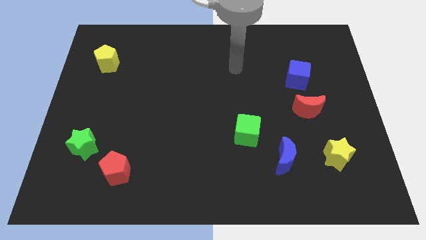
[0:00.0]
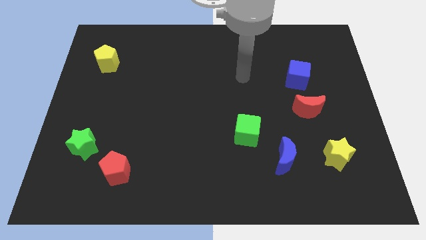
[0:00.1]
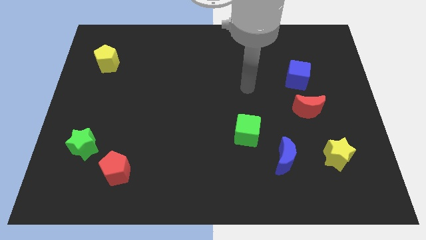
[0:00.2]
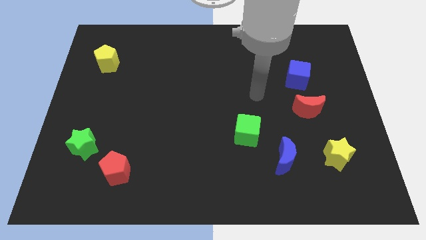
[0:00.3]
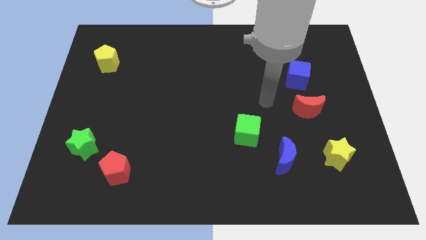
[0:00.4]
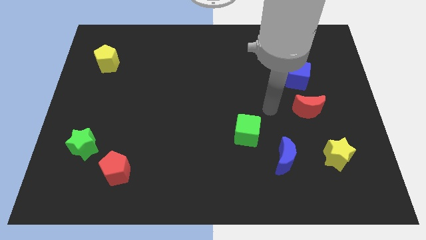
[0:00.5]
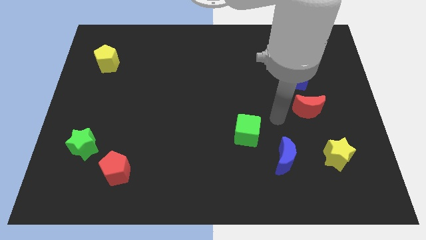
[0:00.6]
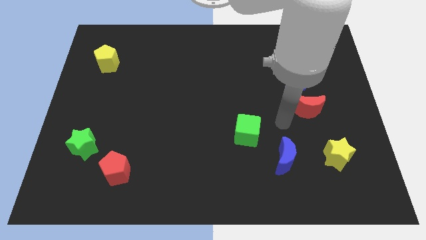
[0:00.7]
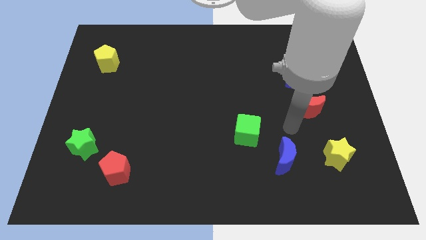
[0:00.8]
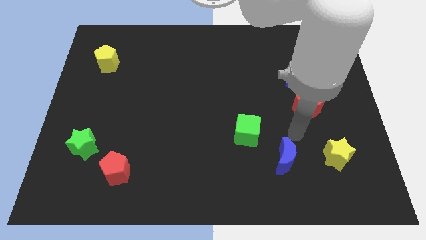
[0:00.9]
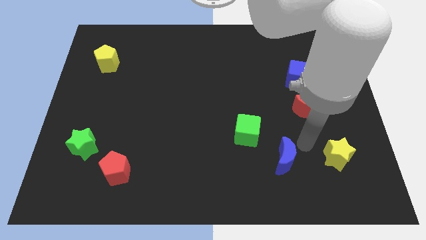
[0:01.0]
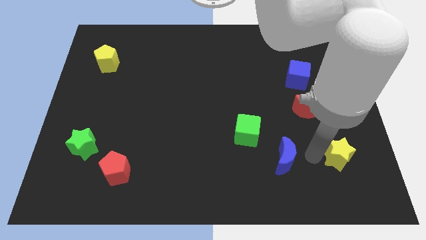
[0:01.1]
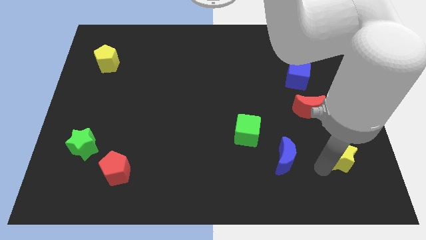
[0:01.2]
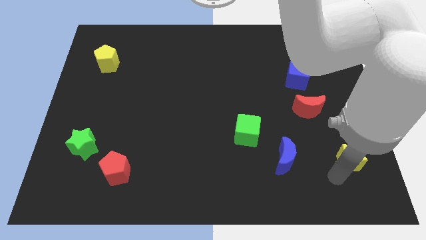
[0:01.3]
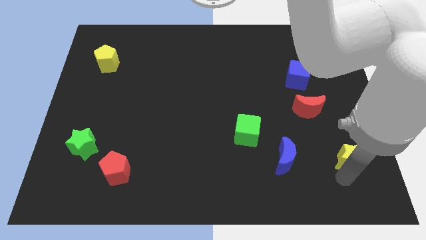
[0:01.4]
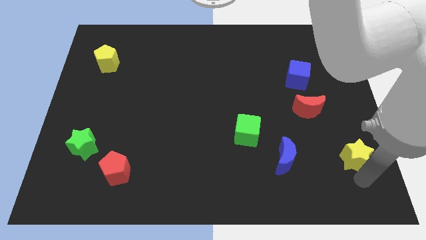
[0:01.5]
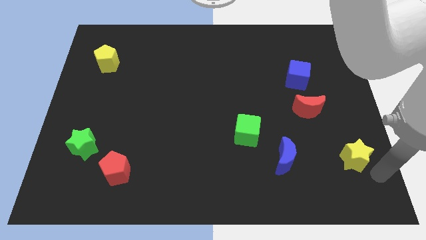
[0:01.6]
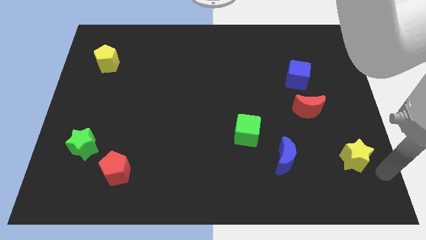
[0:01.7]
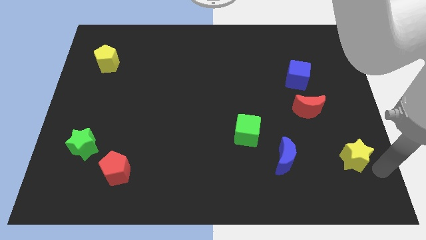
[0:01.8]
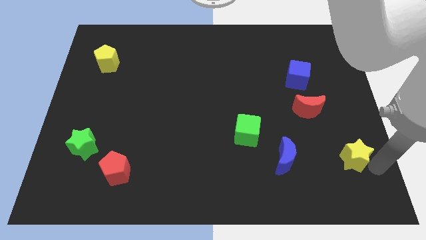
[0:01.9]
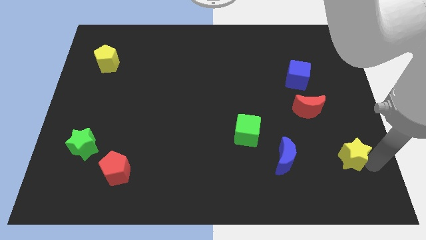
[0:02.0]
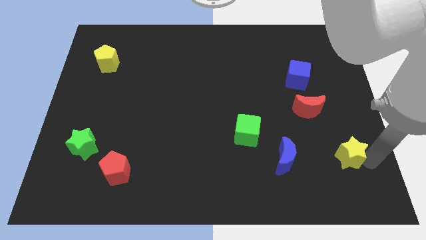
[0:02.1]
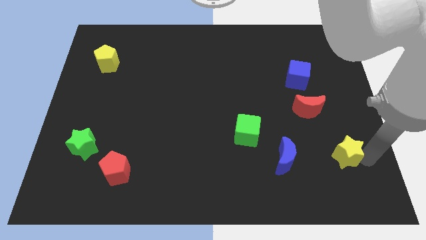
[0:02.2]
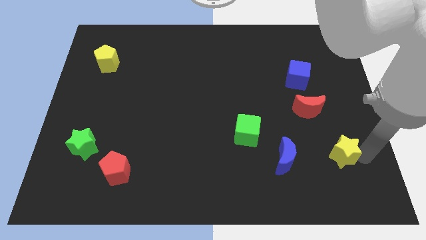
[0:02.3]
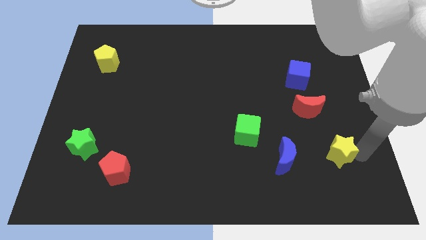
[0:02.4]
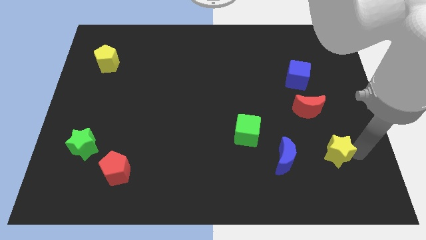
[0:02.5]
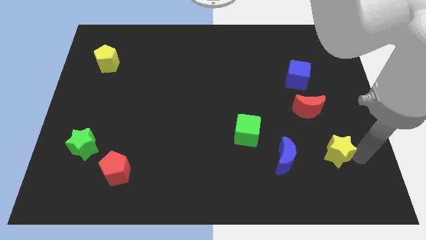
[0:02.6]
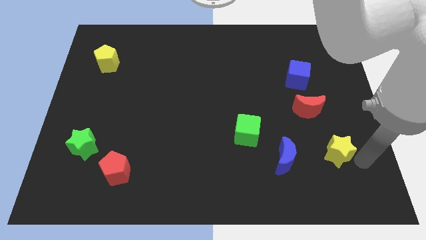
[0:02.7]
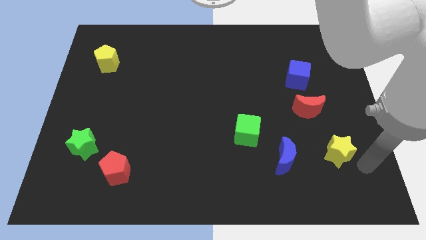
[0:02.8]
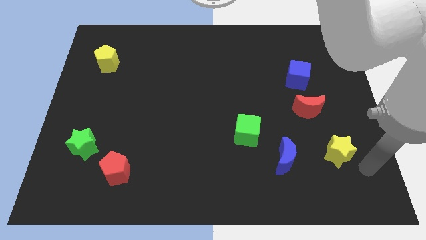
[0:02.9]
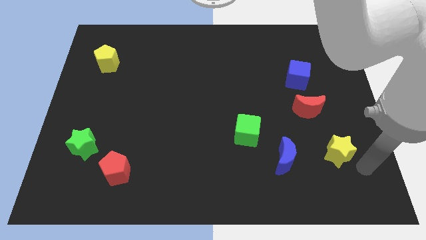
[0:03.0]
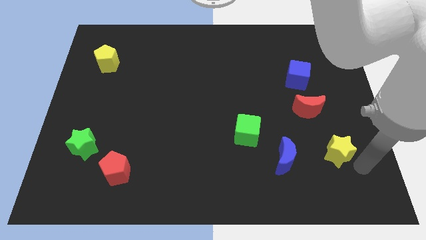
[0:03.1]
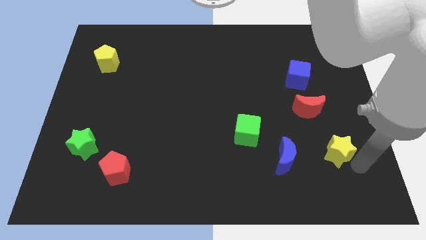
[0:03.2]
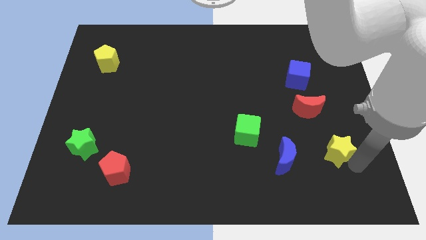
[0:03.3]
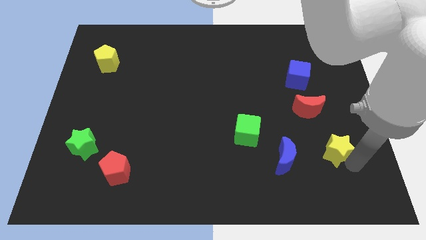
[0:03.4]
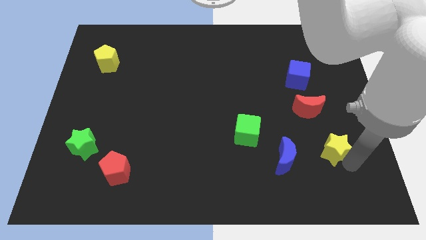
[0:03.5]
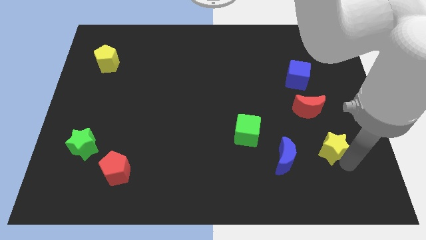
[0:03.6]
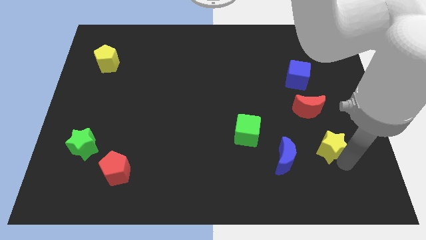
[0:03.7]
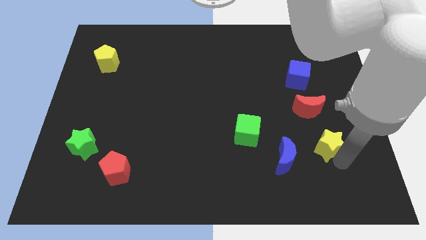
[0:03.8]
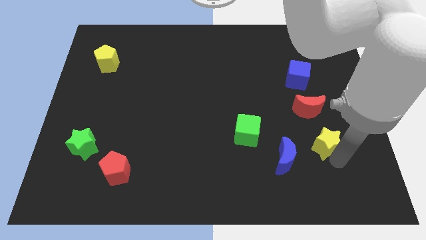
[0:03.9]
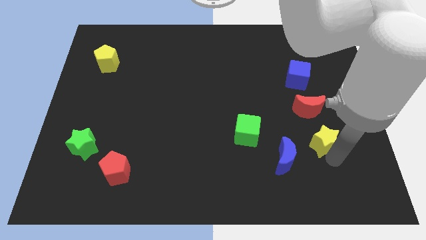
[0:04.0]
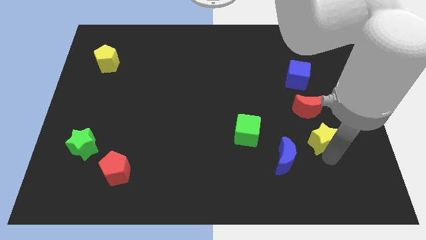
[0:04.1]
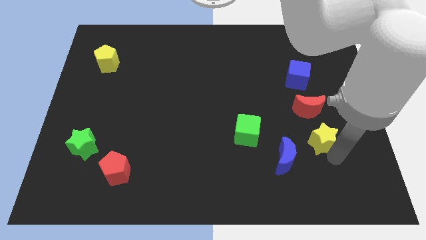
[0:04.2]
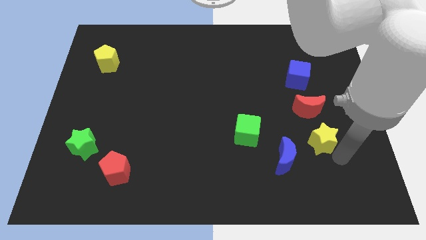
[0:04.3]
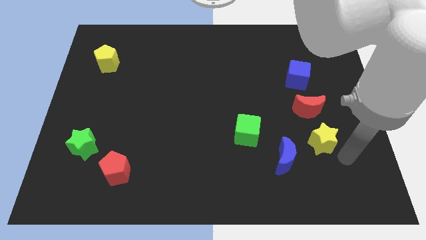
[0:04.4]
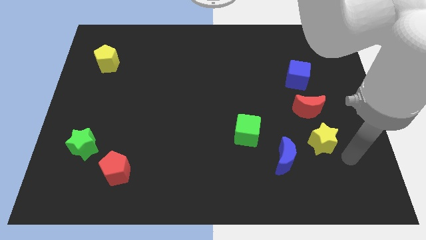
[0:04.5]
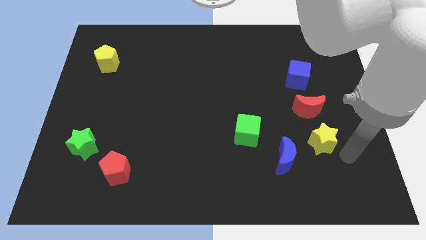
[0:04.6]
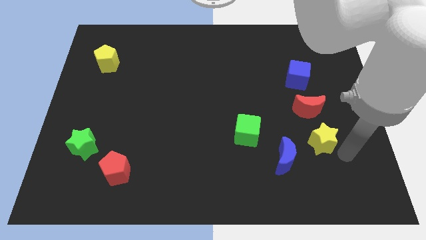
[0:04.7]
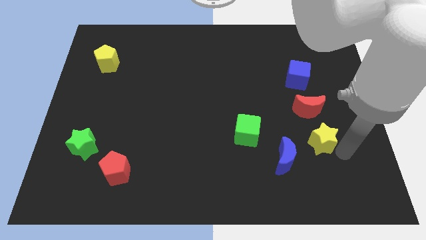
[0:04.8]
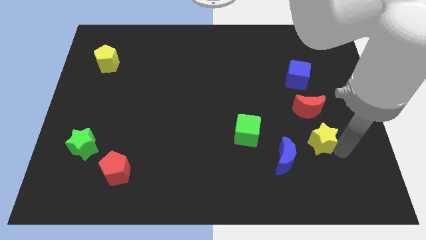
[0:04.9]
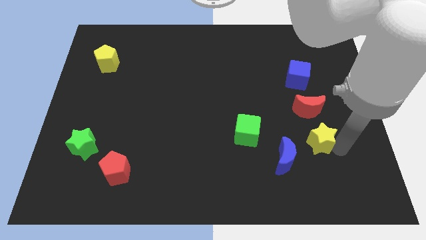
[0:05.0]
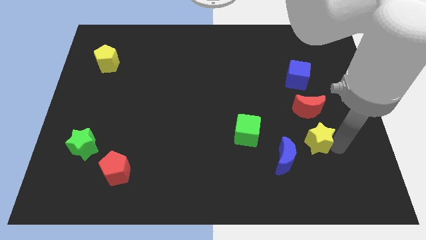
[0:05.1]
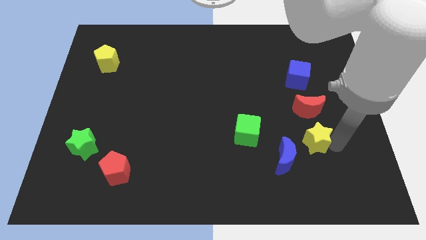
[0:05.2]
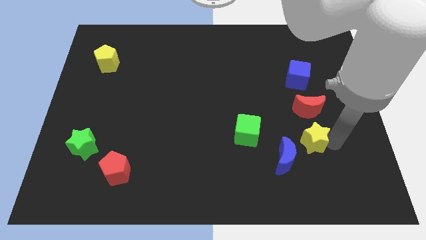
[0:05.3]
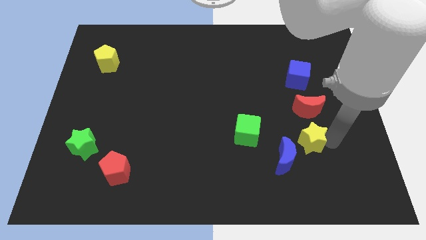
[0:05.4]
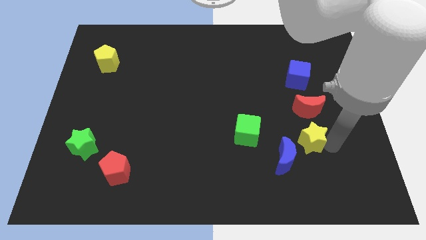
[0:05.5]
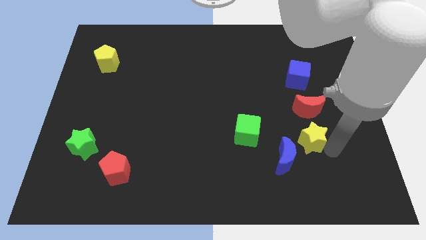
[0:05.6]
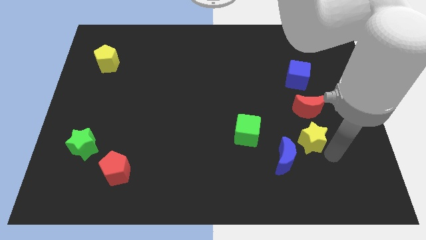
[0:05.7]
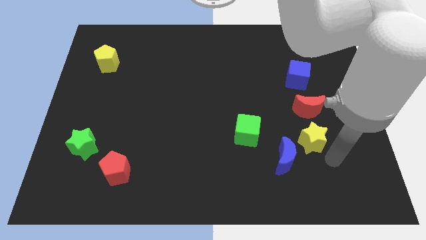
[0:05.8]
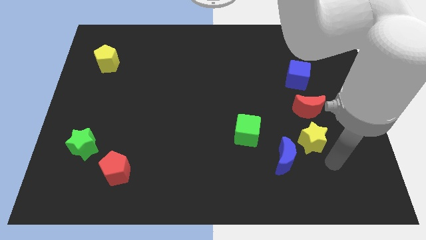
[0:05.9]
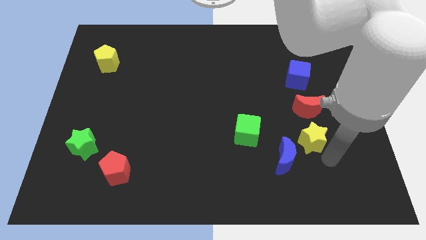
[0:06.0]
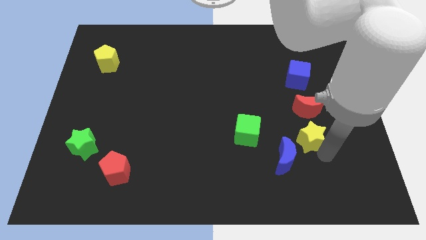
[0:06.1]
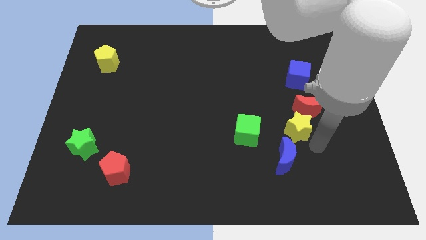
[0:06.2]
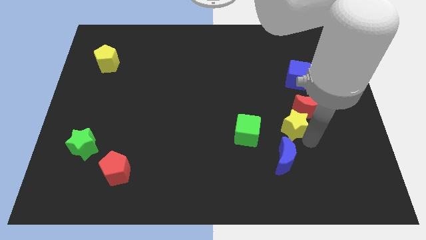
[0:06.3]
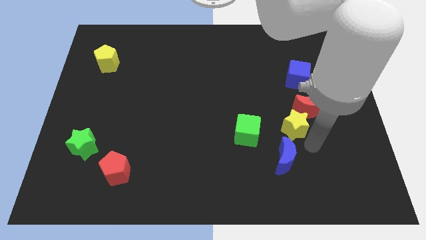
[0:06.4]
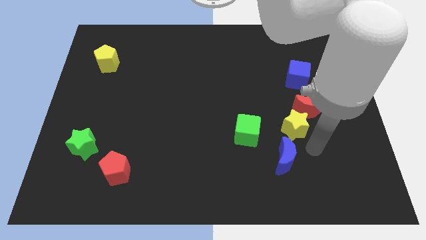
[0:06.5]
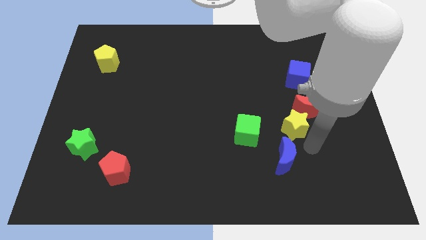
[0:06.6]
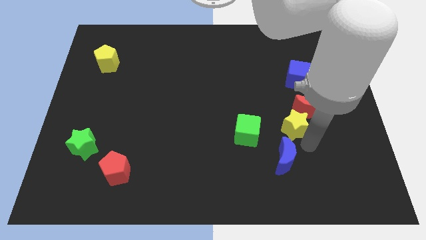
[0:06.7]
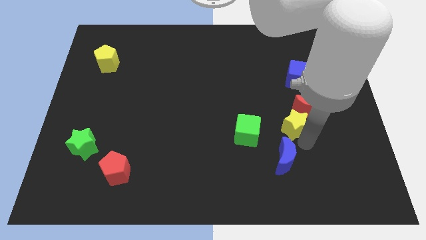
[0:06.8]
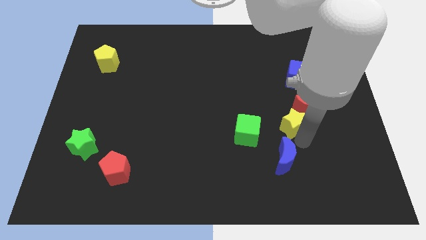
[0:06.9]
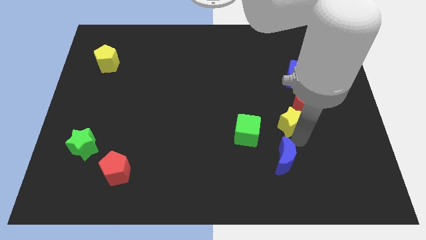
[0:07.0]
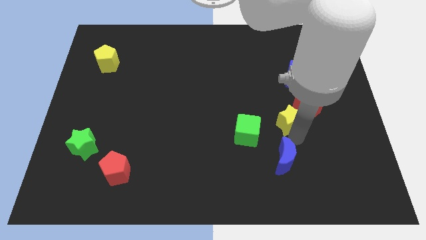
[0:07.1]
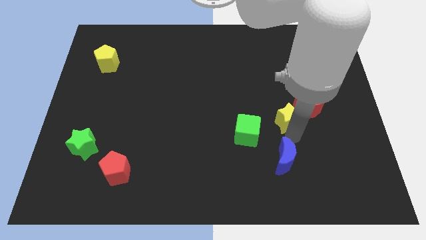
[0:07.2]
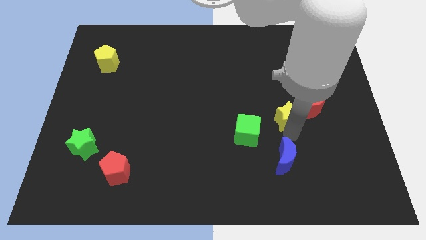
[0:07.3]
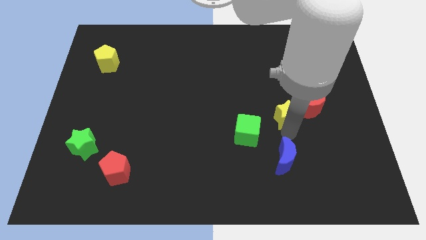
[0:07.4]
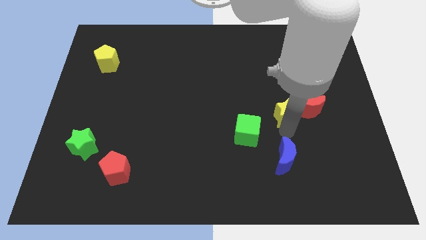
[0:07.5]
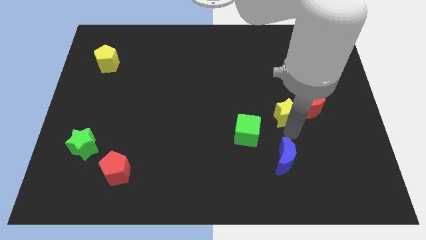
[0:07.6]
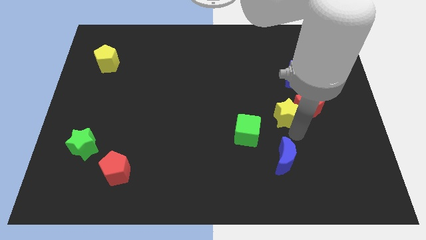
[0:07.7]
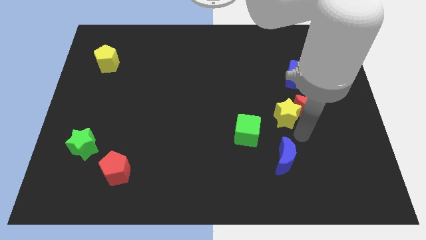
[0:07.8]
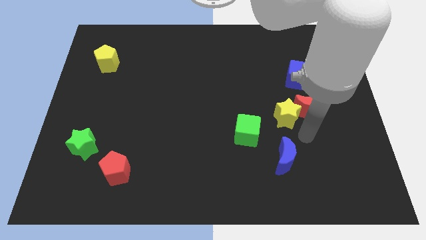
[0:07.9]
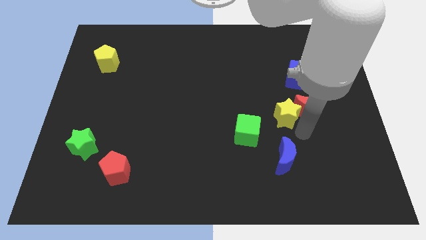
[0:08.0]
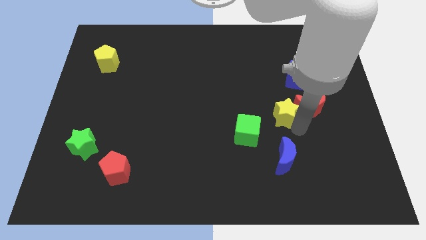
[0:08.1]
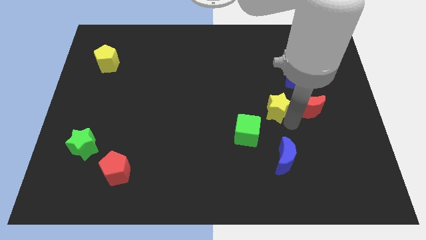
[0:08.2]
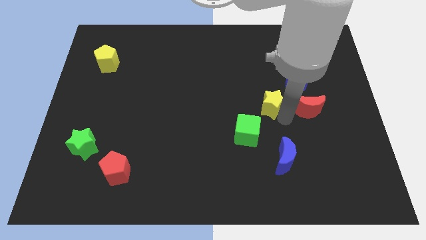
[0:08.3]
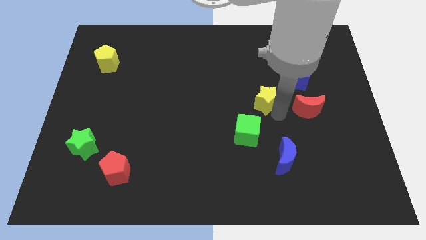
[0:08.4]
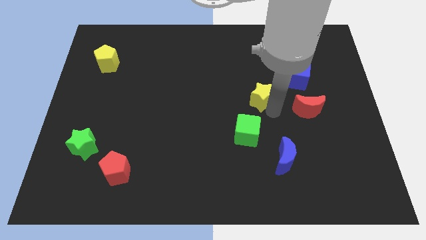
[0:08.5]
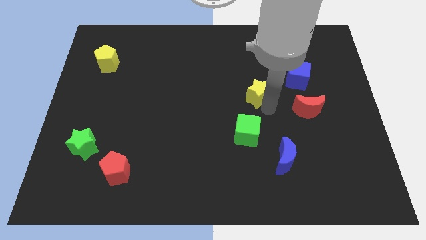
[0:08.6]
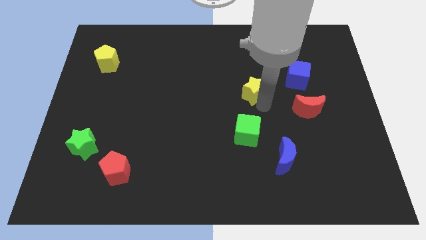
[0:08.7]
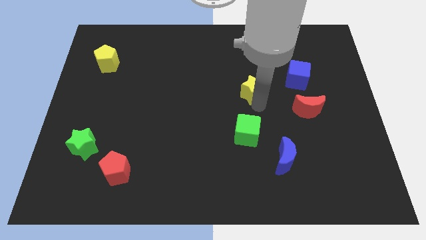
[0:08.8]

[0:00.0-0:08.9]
move the yellow star left of the blue cube
